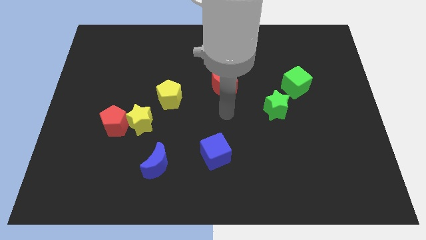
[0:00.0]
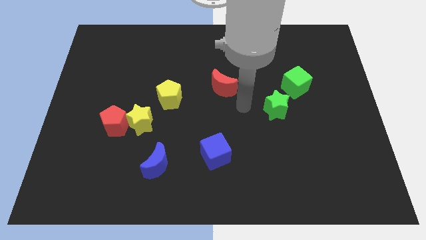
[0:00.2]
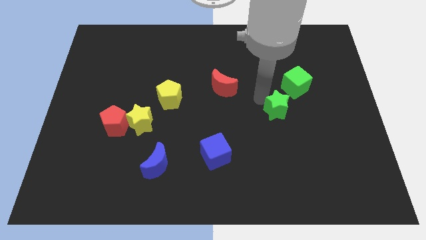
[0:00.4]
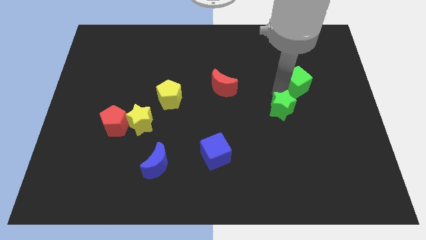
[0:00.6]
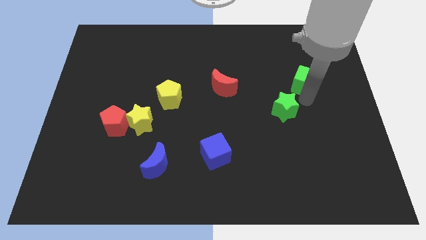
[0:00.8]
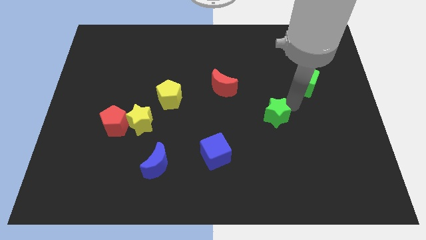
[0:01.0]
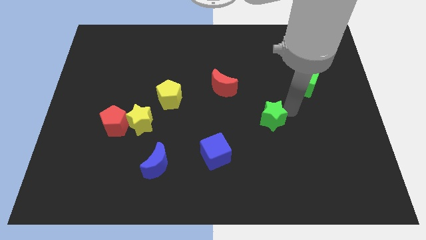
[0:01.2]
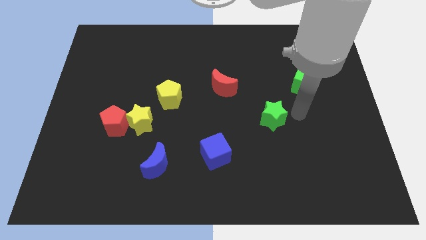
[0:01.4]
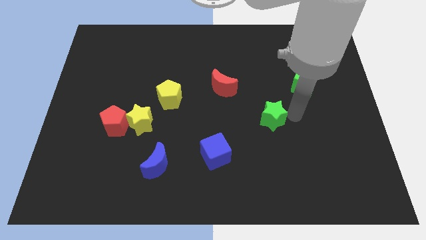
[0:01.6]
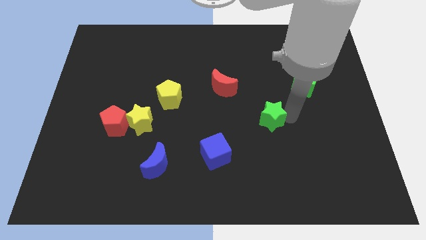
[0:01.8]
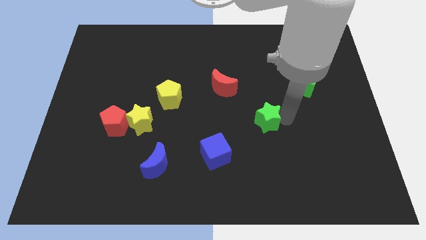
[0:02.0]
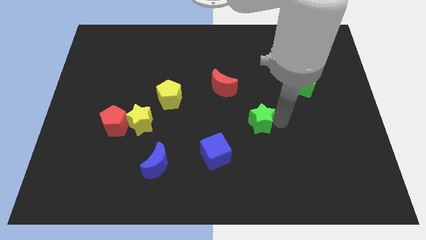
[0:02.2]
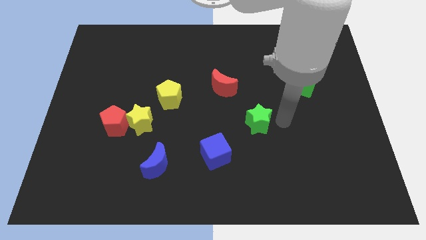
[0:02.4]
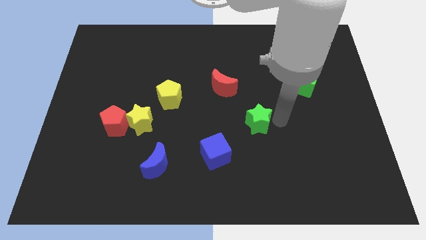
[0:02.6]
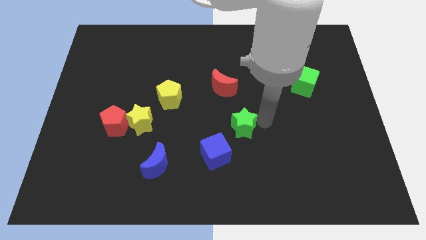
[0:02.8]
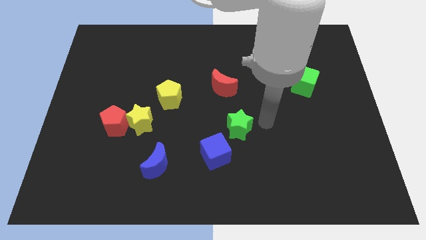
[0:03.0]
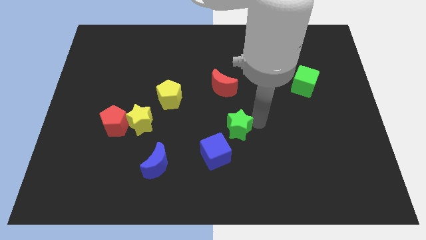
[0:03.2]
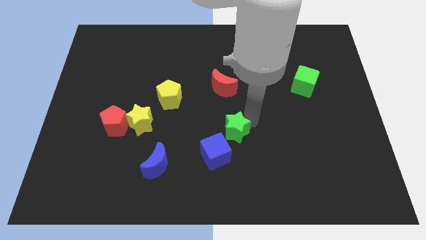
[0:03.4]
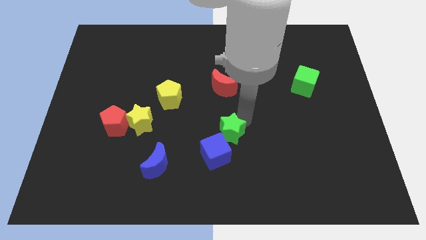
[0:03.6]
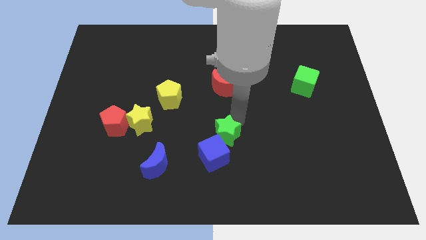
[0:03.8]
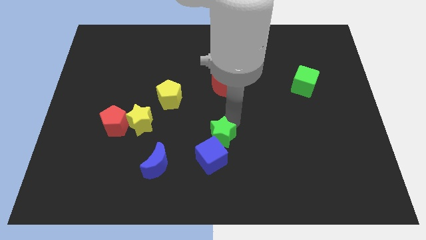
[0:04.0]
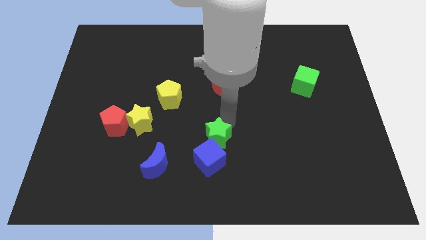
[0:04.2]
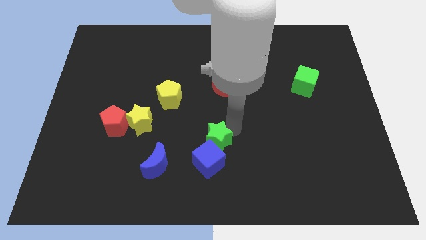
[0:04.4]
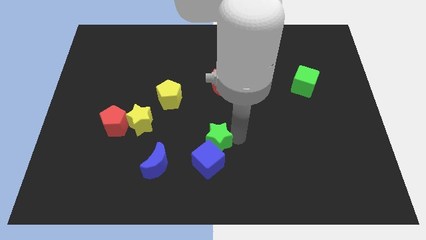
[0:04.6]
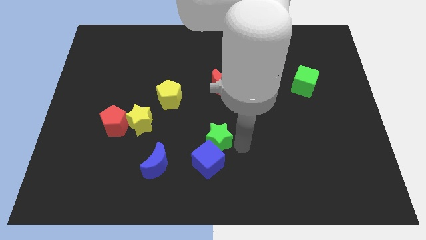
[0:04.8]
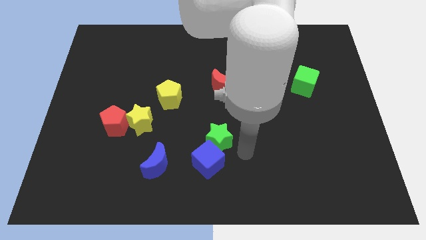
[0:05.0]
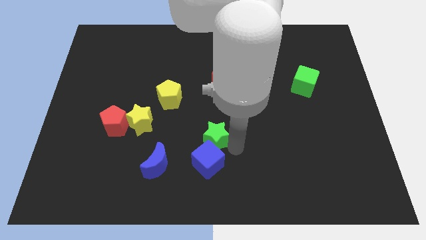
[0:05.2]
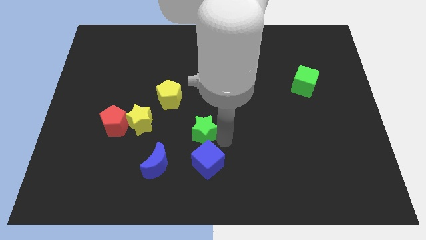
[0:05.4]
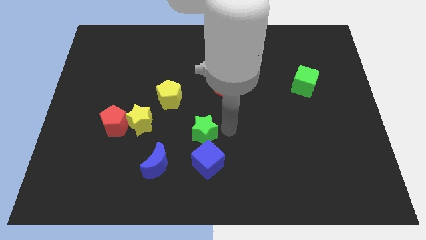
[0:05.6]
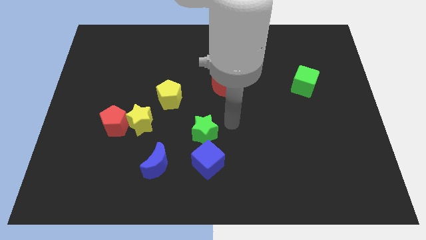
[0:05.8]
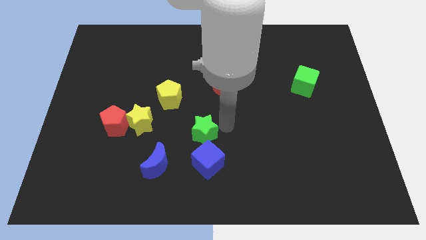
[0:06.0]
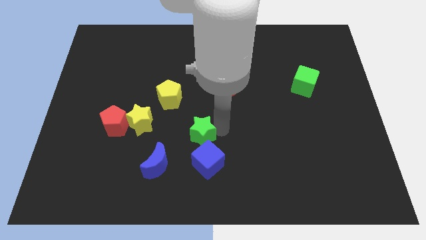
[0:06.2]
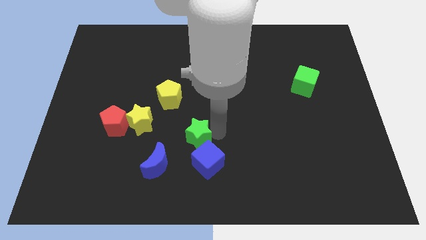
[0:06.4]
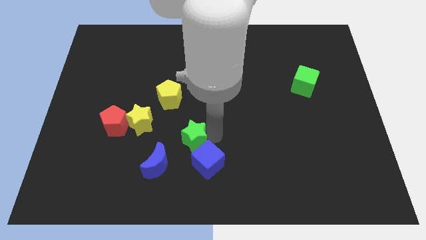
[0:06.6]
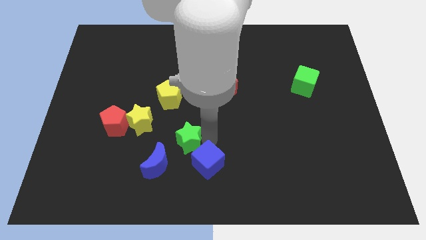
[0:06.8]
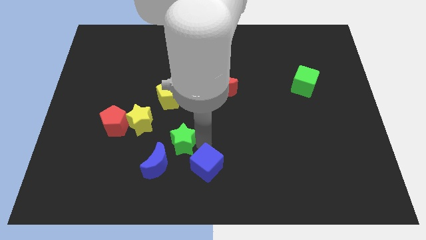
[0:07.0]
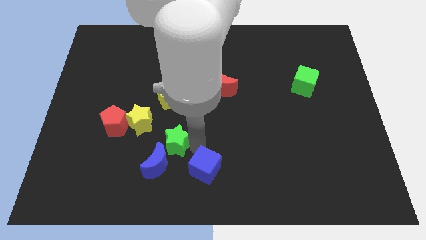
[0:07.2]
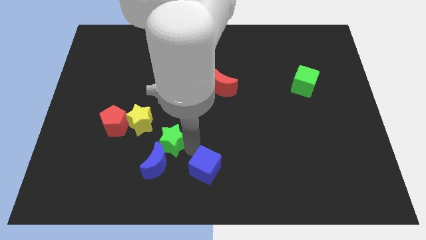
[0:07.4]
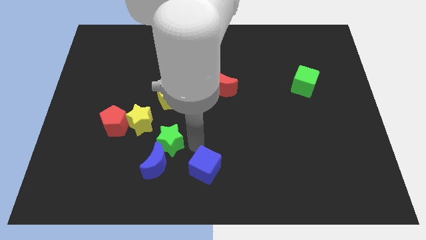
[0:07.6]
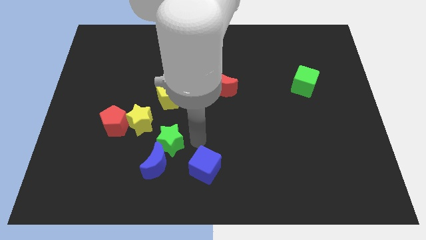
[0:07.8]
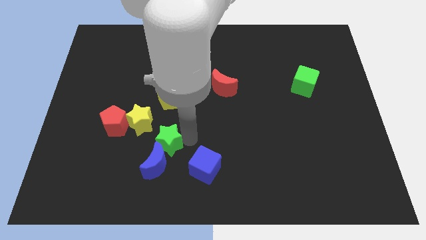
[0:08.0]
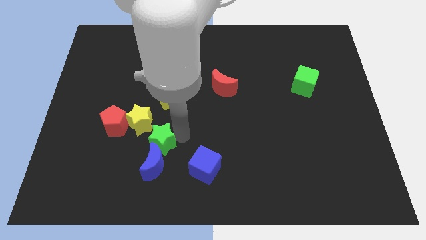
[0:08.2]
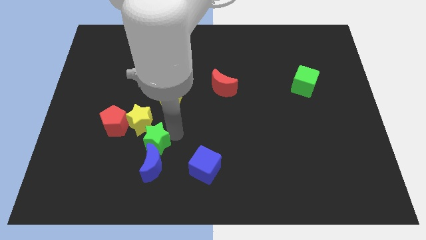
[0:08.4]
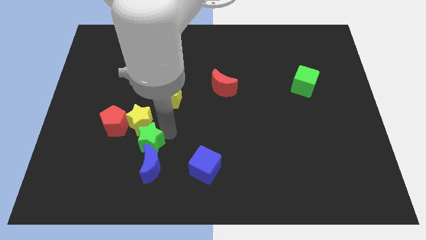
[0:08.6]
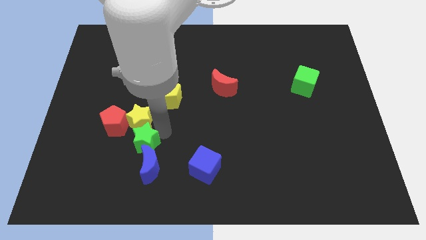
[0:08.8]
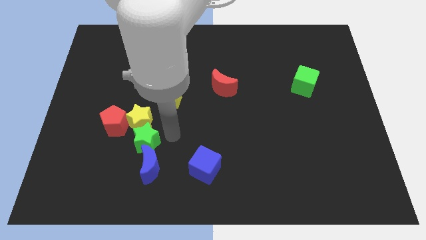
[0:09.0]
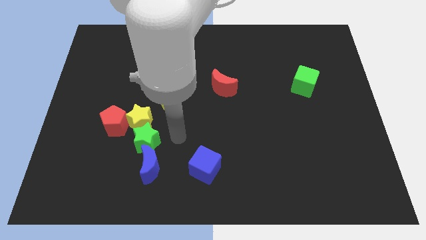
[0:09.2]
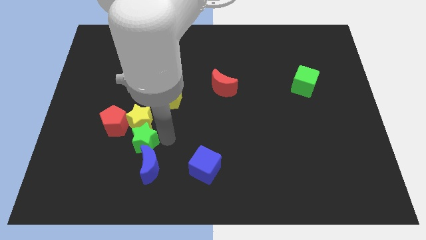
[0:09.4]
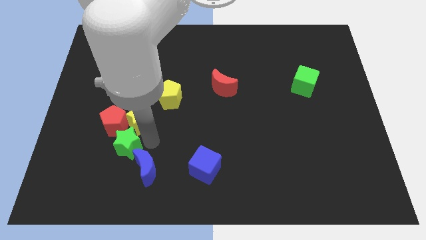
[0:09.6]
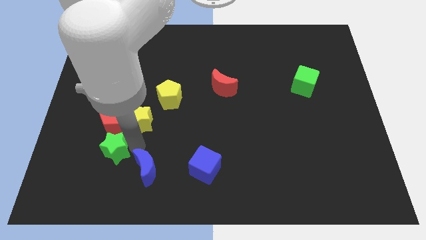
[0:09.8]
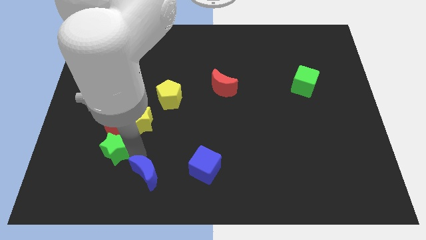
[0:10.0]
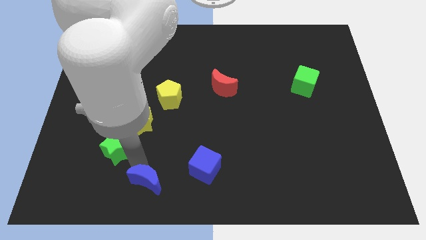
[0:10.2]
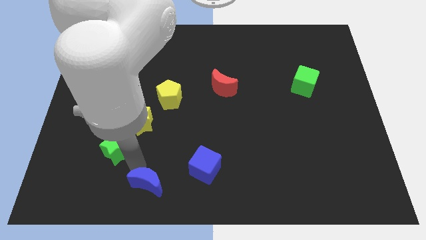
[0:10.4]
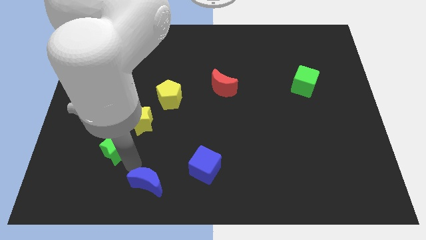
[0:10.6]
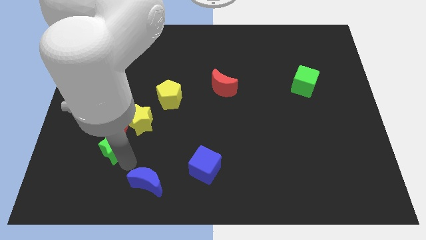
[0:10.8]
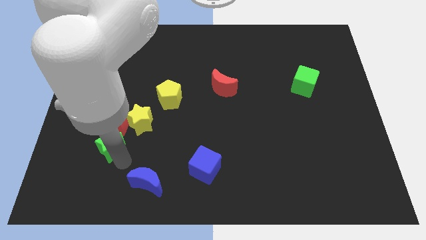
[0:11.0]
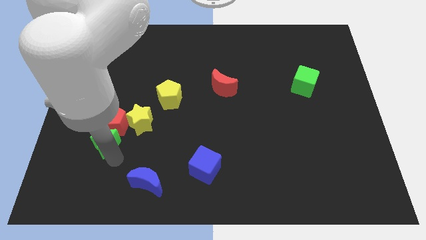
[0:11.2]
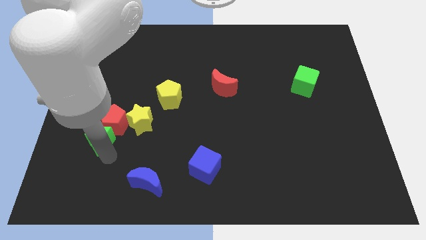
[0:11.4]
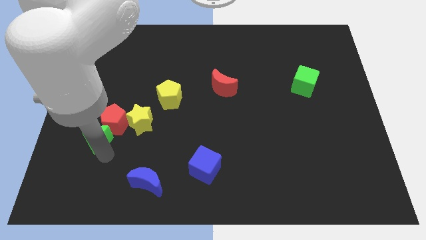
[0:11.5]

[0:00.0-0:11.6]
move the green star left of the yellow star

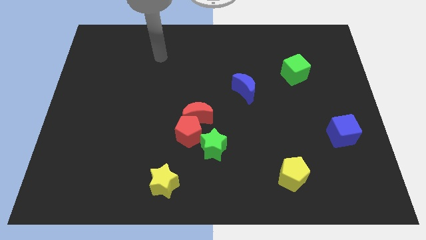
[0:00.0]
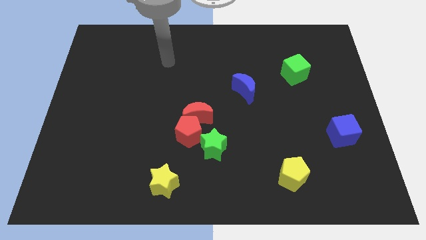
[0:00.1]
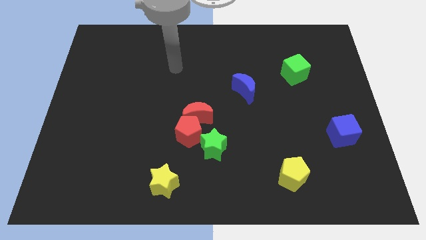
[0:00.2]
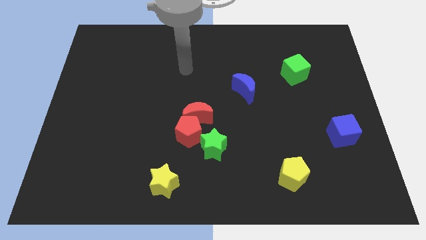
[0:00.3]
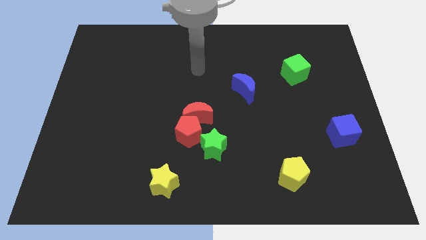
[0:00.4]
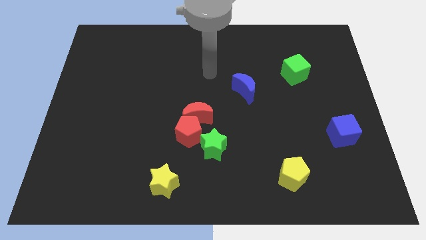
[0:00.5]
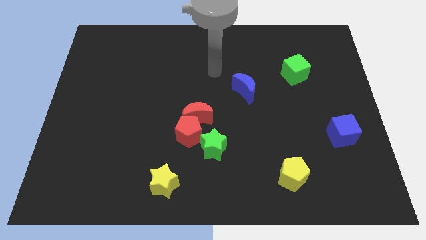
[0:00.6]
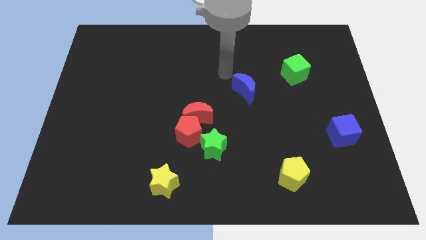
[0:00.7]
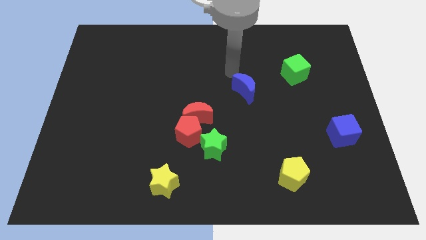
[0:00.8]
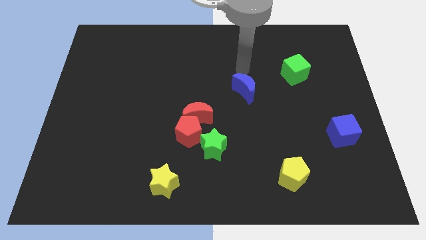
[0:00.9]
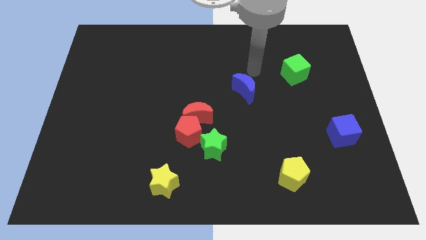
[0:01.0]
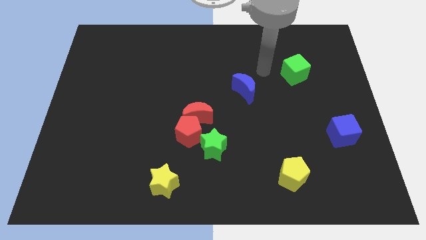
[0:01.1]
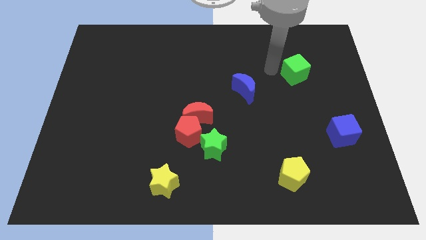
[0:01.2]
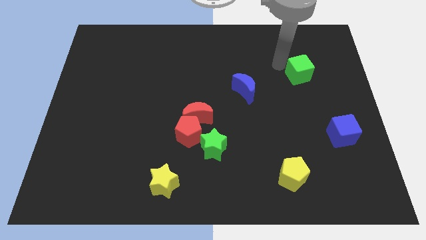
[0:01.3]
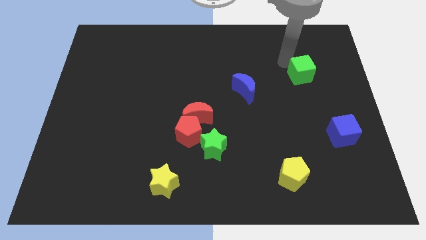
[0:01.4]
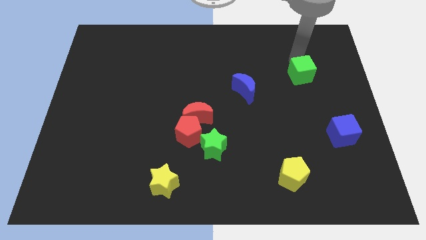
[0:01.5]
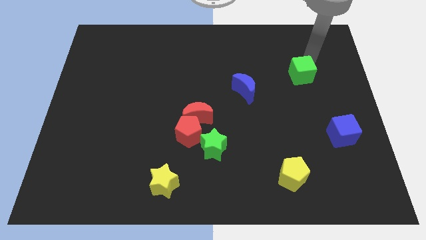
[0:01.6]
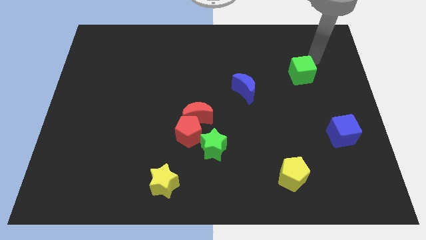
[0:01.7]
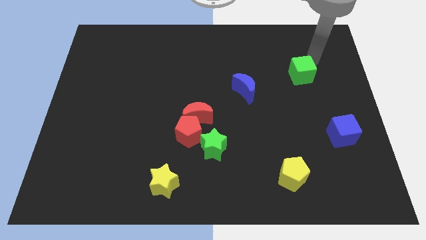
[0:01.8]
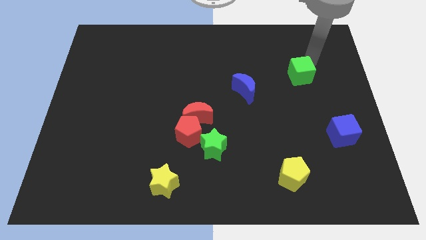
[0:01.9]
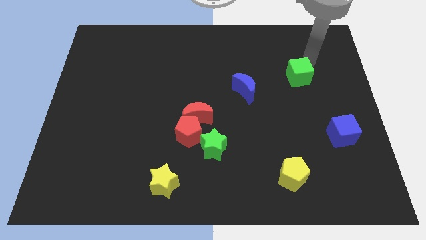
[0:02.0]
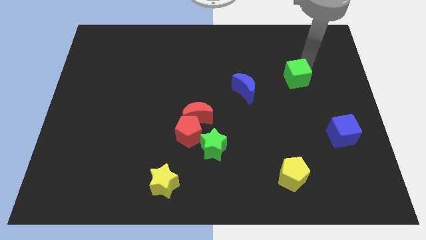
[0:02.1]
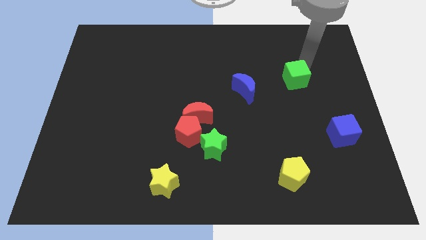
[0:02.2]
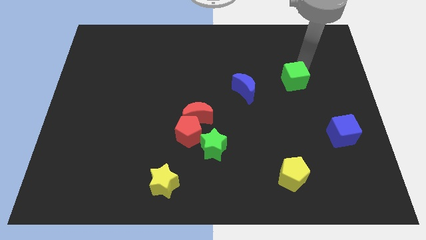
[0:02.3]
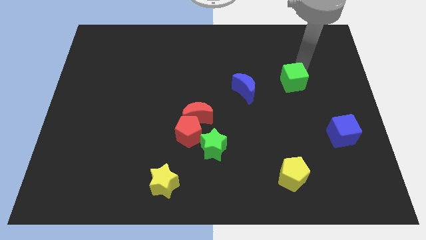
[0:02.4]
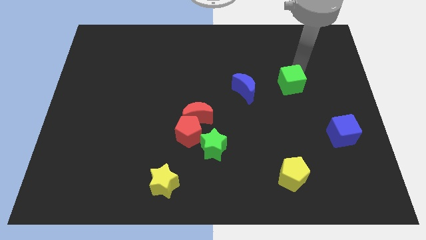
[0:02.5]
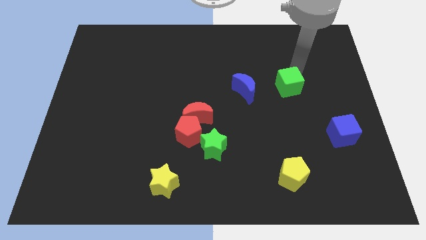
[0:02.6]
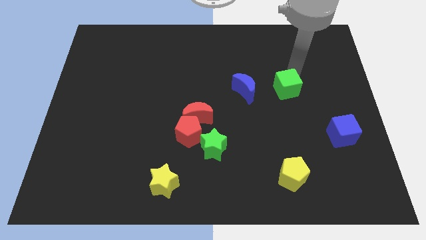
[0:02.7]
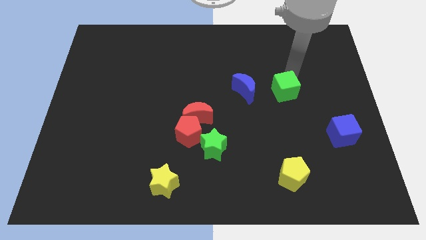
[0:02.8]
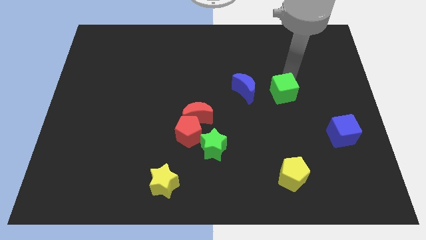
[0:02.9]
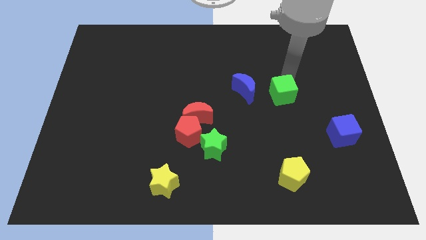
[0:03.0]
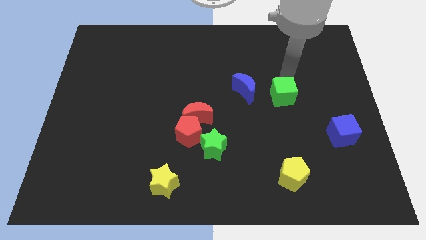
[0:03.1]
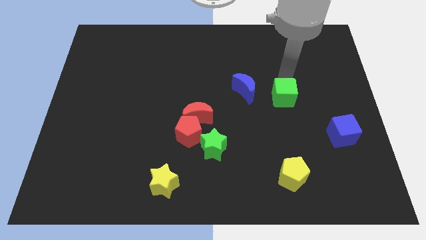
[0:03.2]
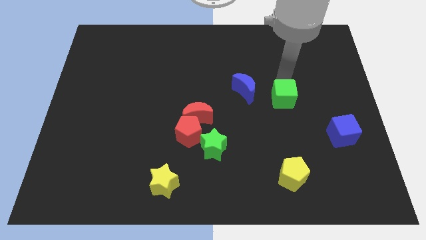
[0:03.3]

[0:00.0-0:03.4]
slide the green cube to the bottom right of the blue moon
